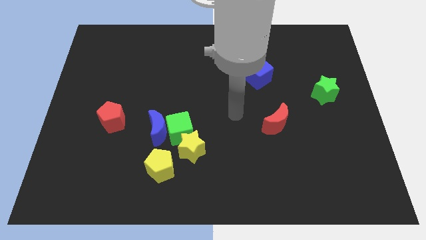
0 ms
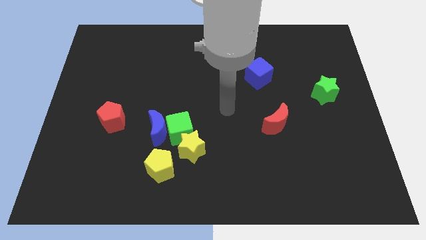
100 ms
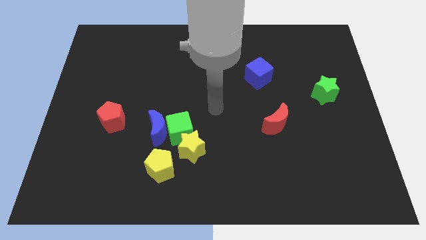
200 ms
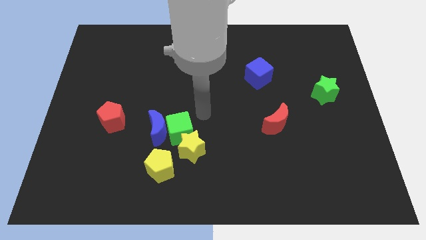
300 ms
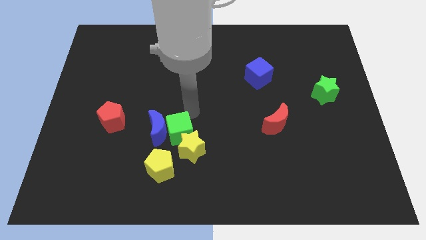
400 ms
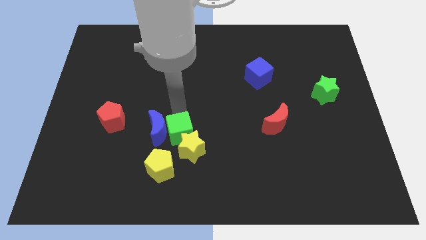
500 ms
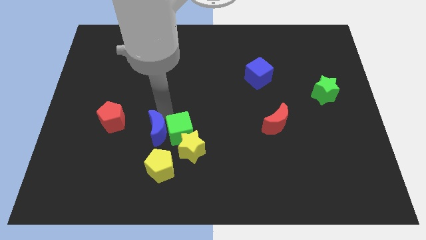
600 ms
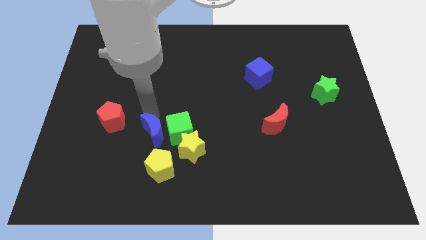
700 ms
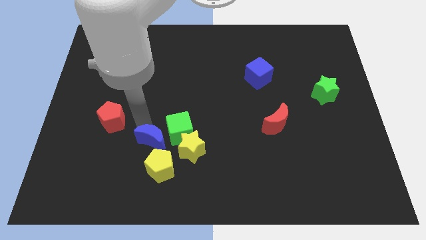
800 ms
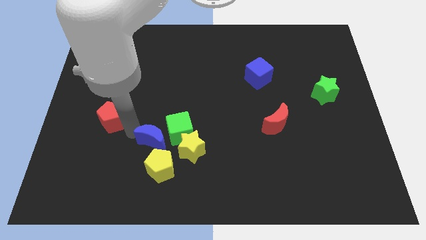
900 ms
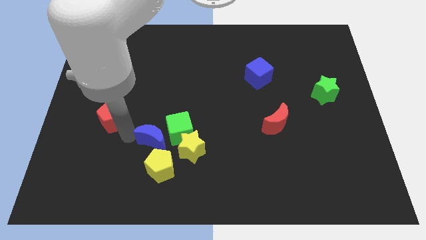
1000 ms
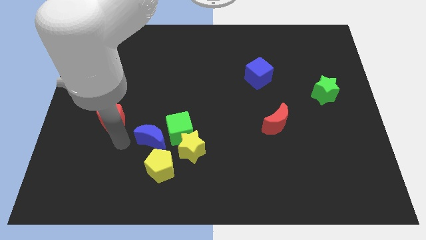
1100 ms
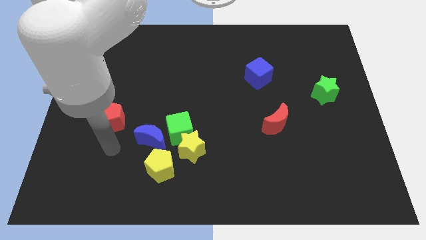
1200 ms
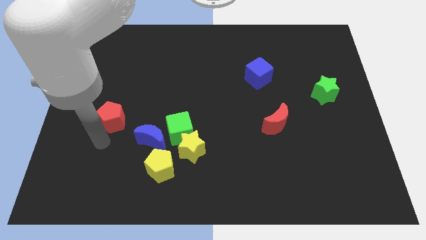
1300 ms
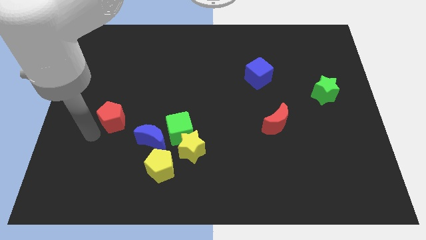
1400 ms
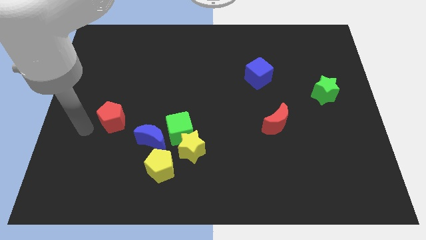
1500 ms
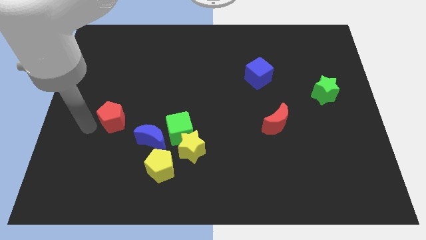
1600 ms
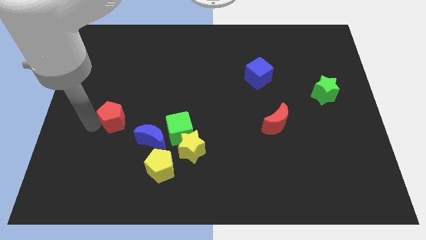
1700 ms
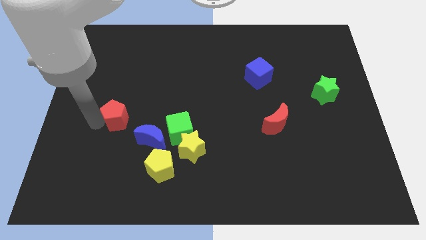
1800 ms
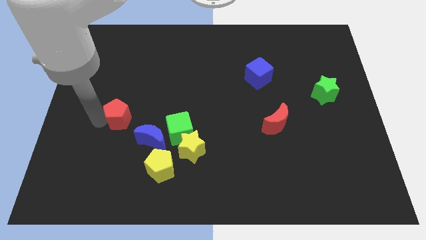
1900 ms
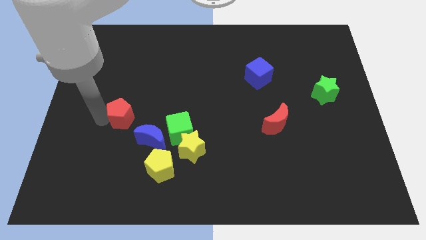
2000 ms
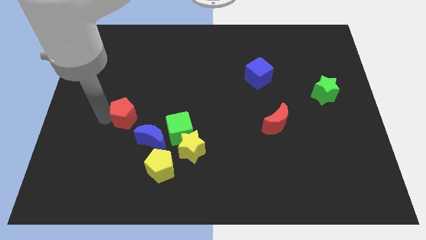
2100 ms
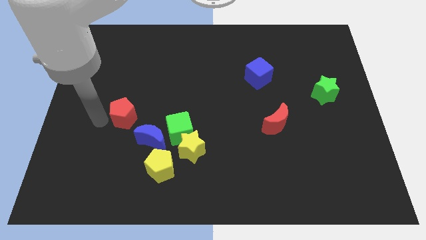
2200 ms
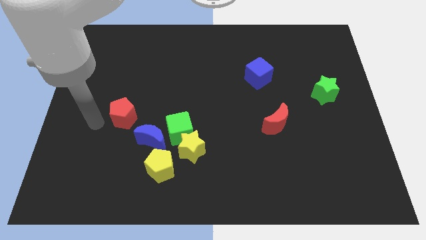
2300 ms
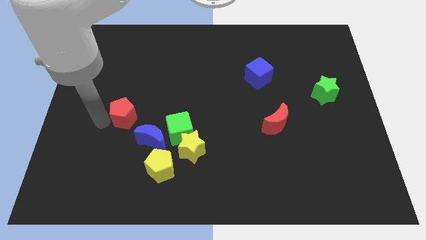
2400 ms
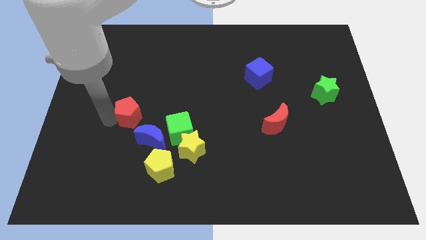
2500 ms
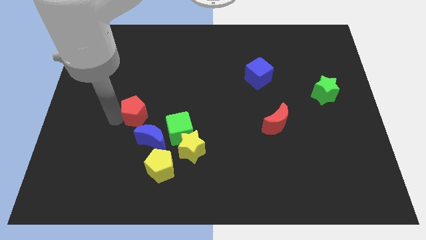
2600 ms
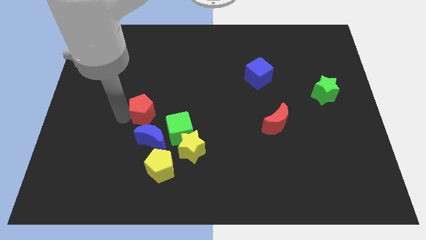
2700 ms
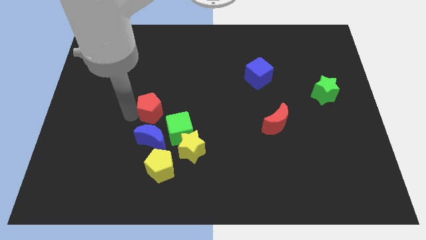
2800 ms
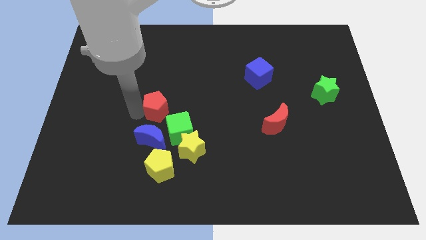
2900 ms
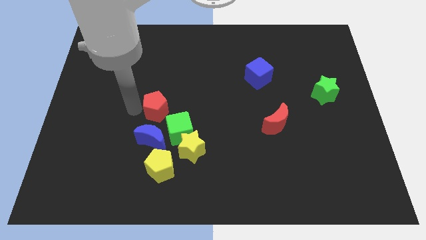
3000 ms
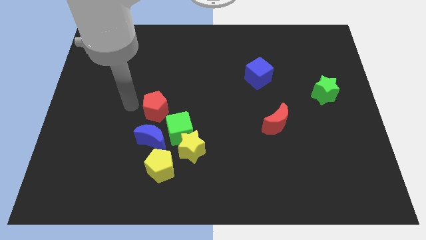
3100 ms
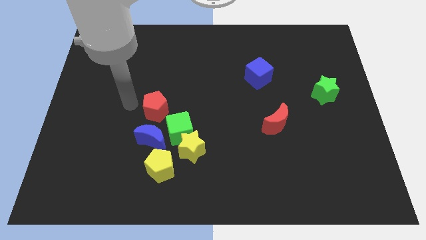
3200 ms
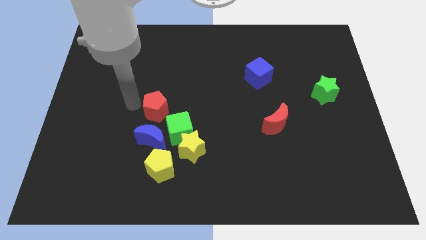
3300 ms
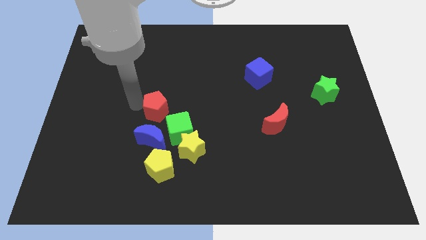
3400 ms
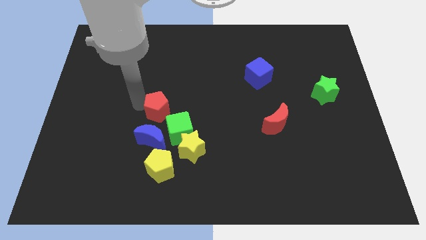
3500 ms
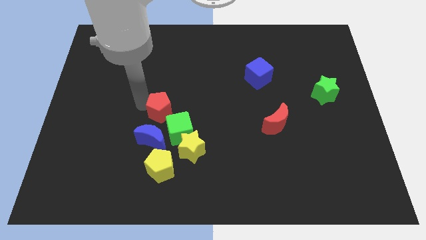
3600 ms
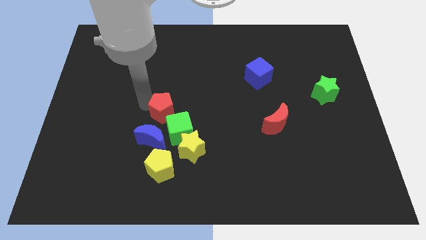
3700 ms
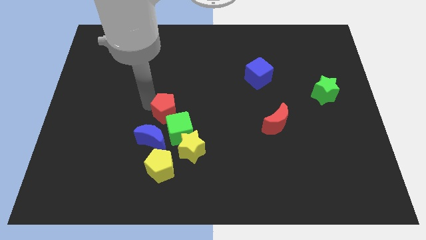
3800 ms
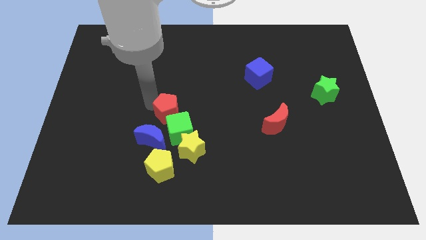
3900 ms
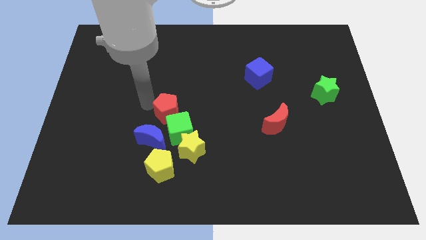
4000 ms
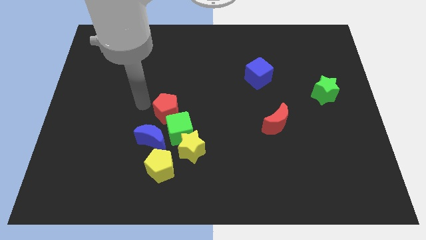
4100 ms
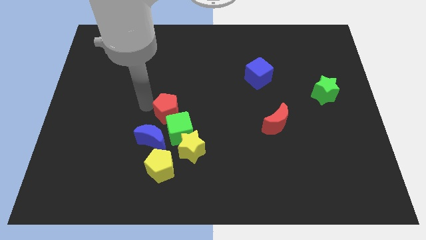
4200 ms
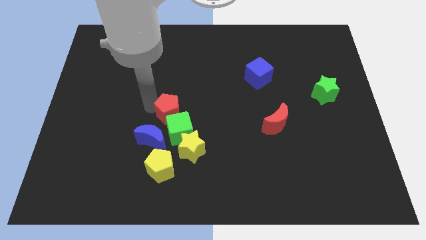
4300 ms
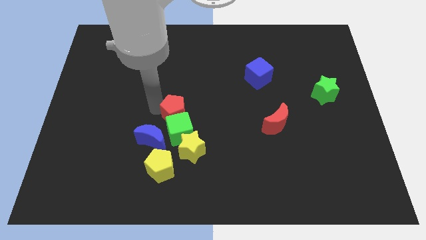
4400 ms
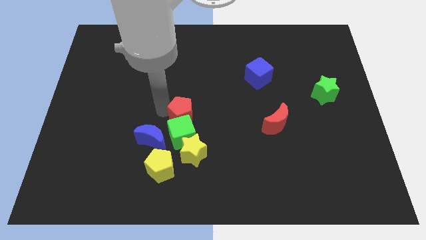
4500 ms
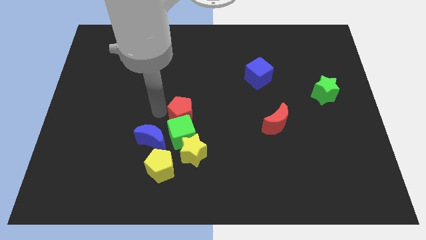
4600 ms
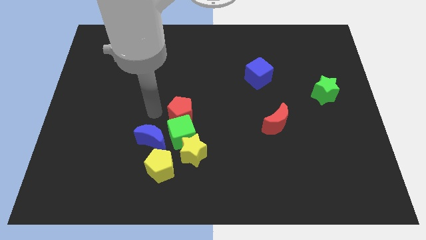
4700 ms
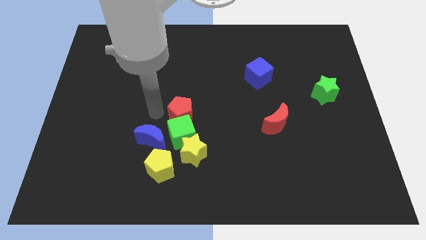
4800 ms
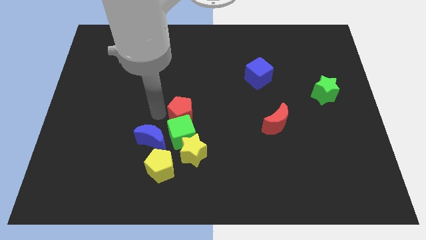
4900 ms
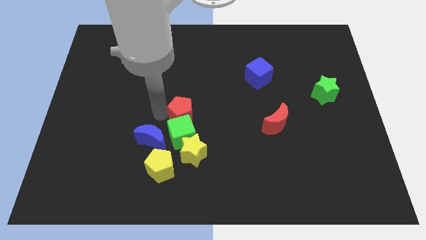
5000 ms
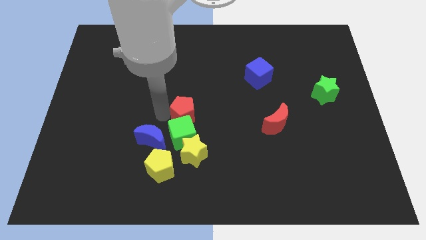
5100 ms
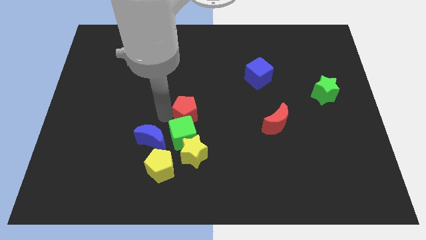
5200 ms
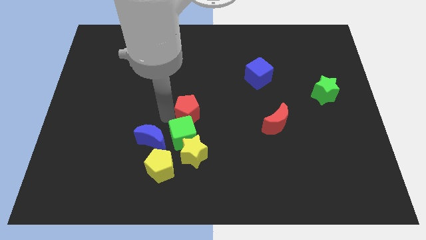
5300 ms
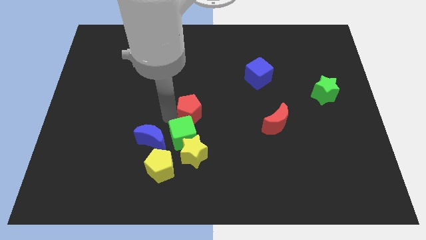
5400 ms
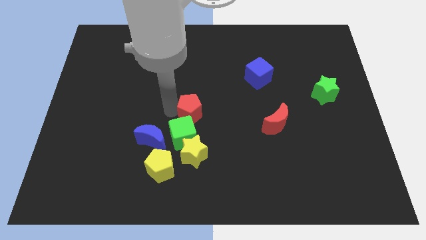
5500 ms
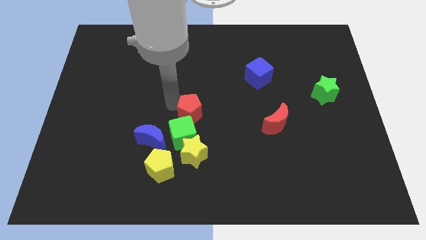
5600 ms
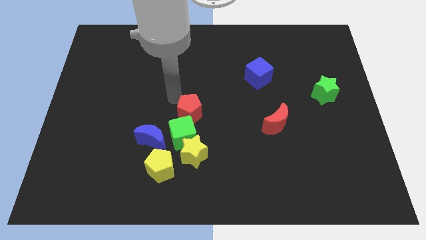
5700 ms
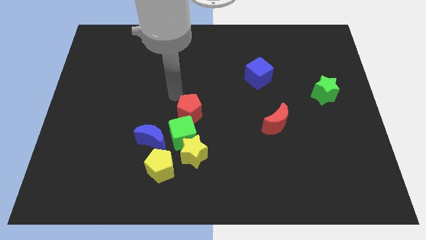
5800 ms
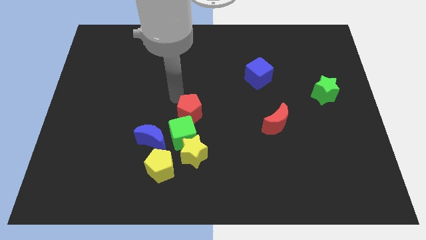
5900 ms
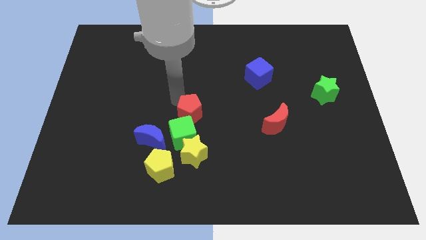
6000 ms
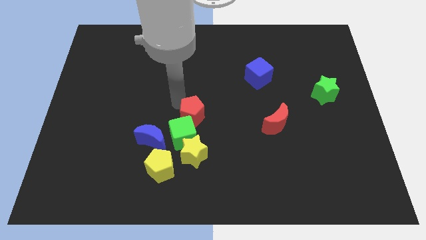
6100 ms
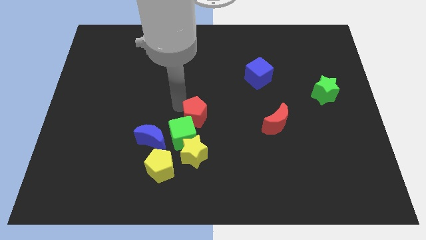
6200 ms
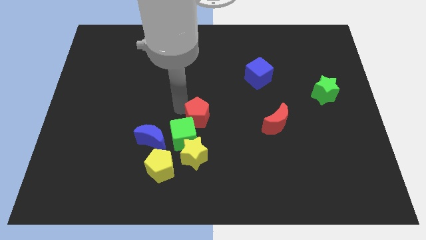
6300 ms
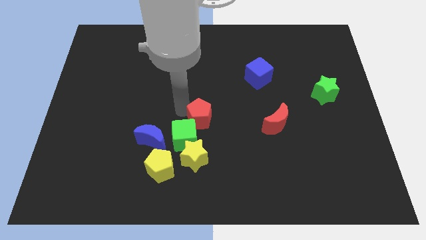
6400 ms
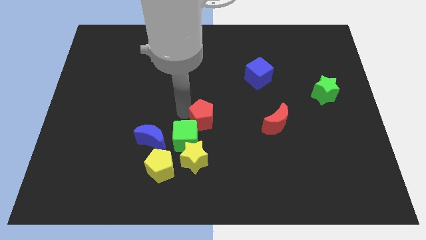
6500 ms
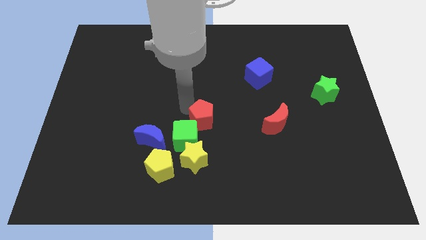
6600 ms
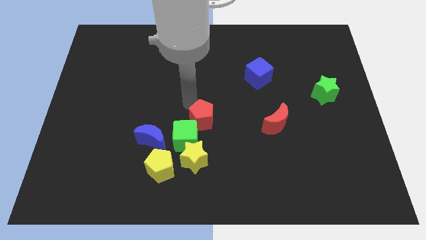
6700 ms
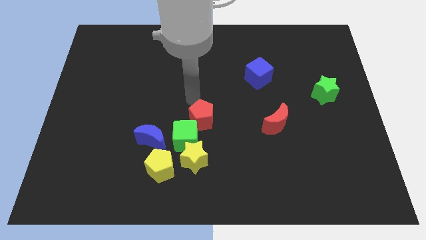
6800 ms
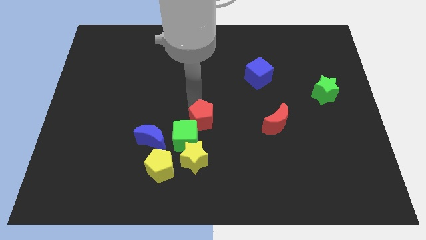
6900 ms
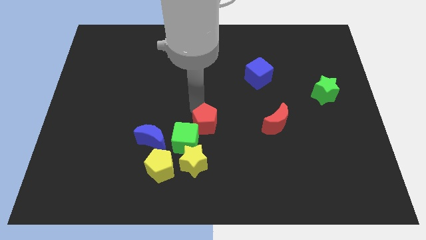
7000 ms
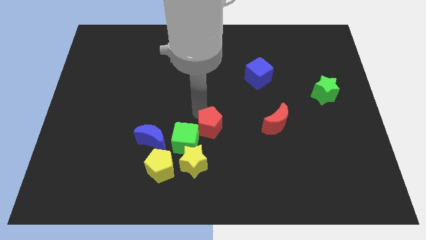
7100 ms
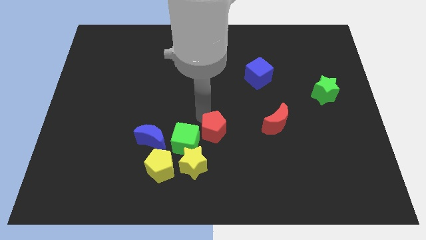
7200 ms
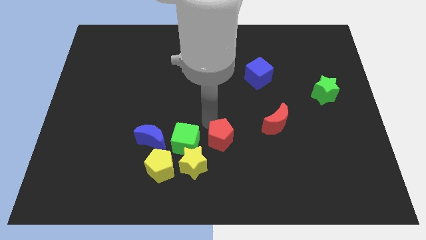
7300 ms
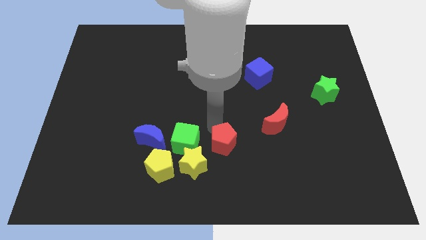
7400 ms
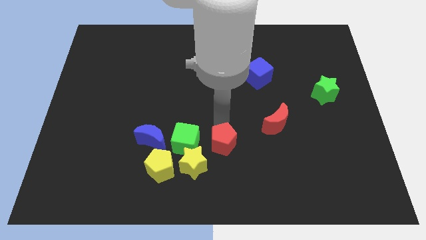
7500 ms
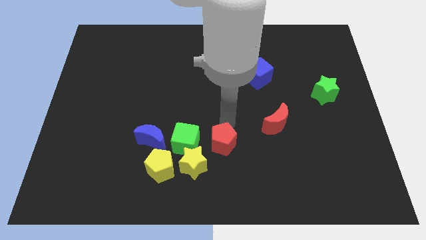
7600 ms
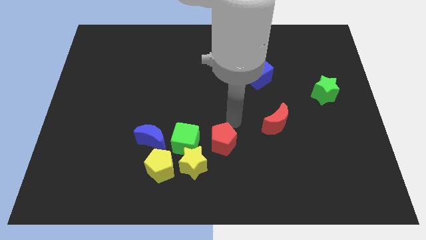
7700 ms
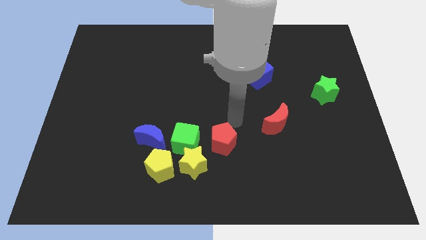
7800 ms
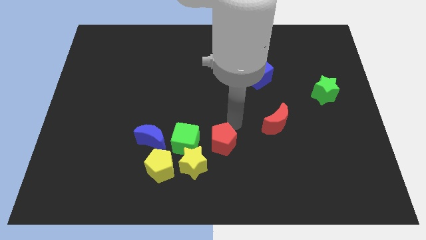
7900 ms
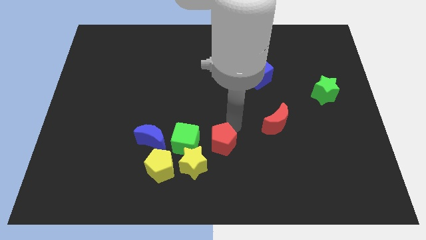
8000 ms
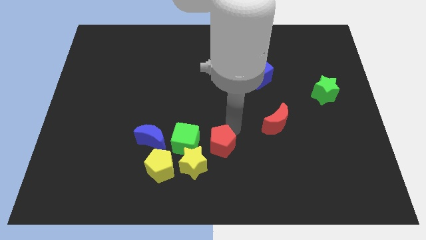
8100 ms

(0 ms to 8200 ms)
push the red pentagon to the bottom right side of the green cube
